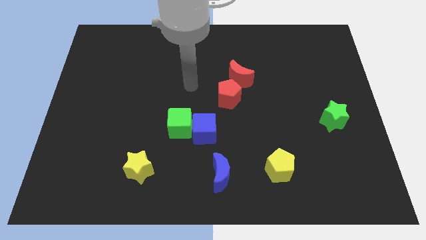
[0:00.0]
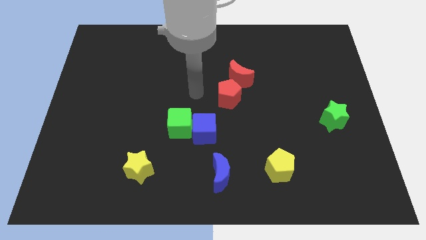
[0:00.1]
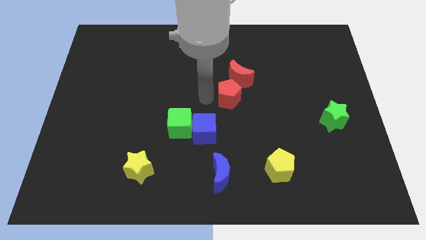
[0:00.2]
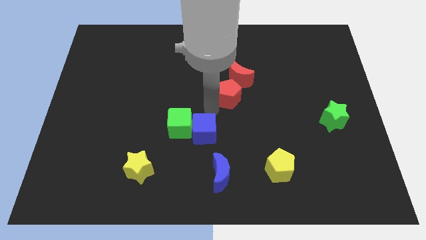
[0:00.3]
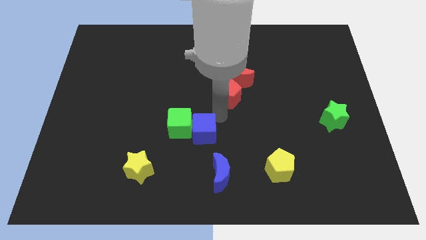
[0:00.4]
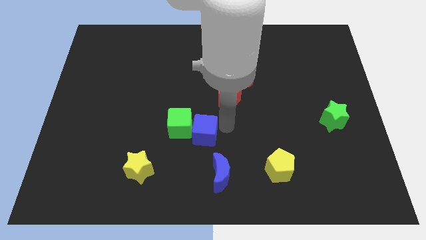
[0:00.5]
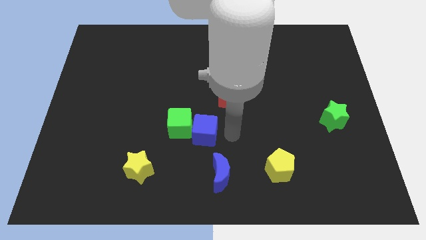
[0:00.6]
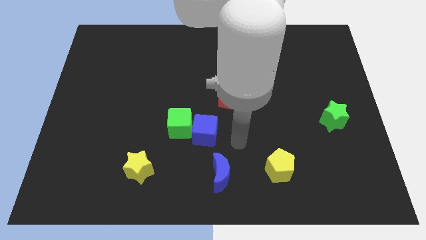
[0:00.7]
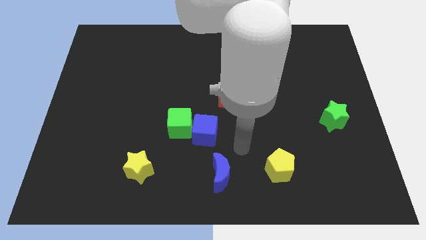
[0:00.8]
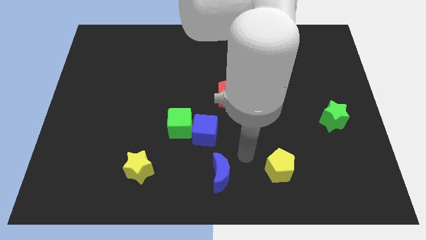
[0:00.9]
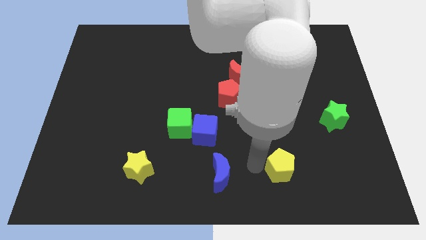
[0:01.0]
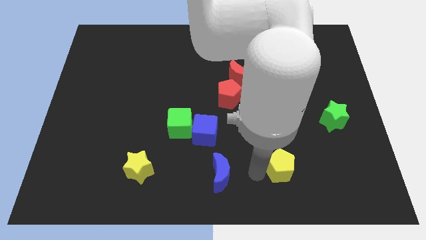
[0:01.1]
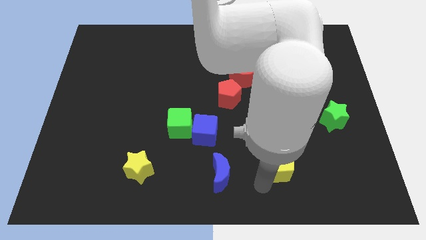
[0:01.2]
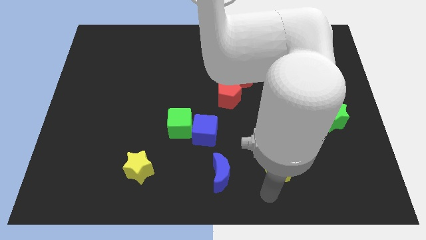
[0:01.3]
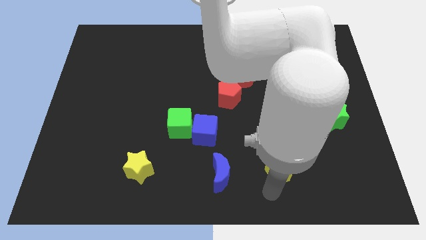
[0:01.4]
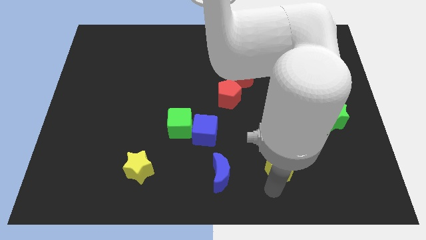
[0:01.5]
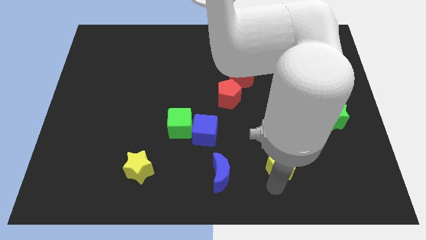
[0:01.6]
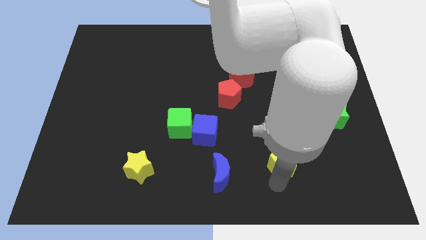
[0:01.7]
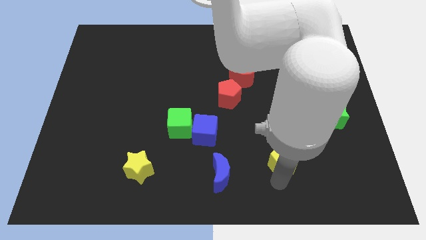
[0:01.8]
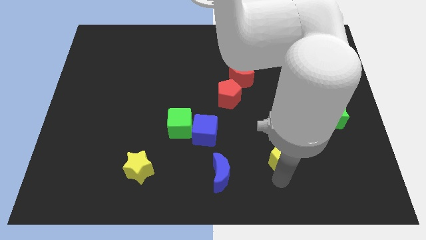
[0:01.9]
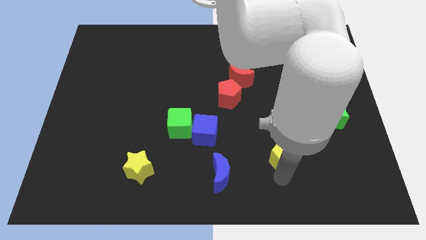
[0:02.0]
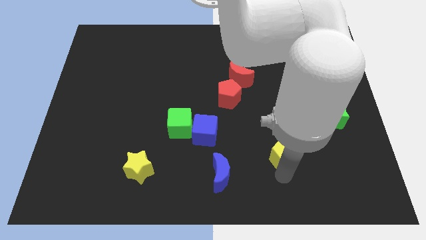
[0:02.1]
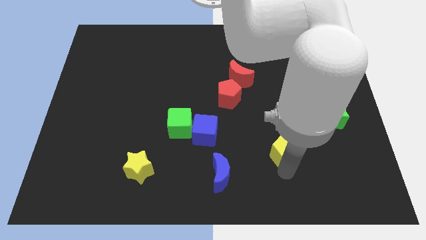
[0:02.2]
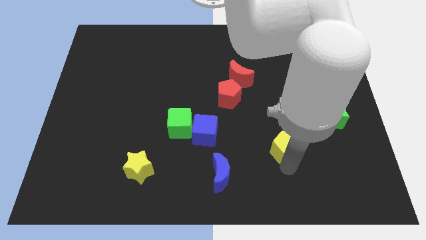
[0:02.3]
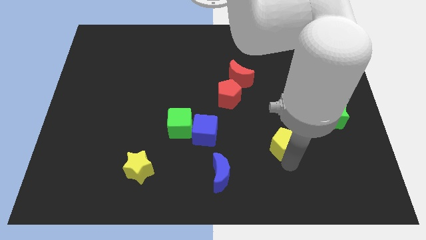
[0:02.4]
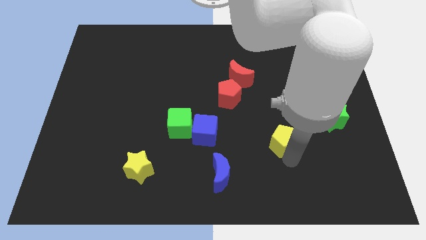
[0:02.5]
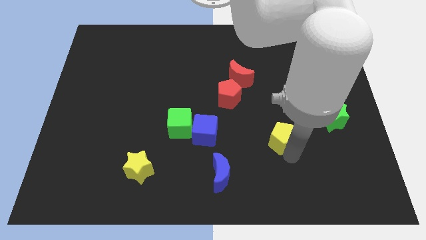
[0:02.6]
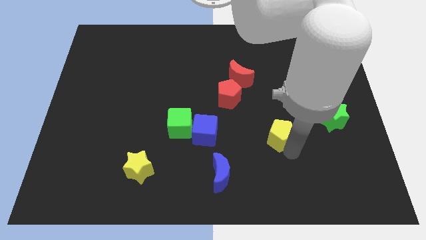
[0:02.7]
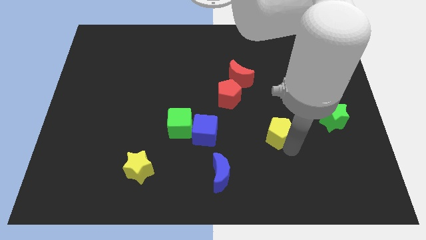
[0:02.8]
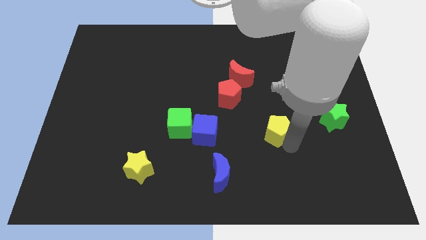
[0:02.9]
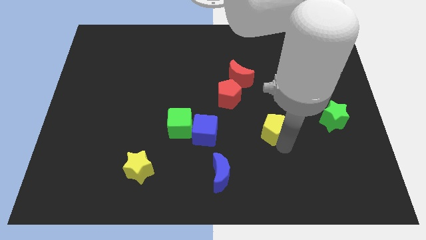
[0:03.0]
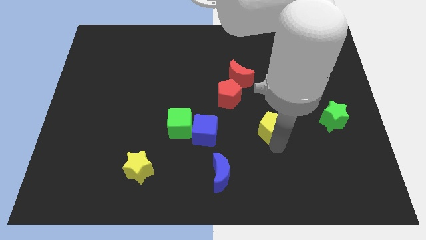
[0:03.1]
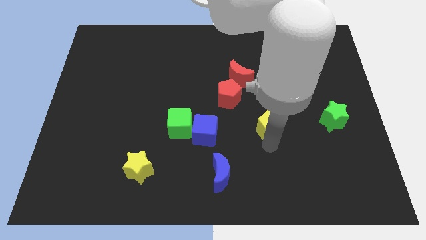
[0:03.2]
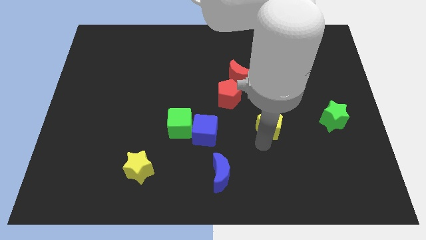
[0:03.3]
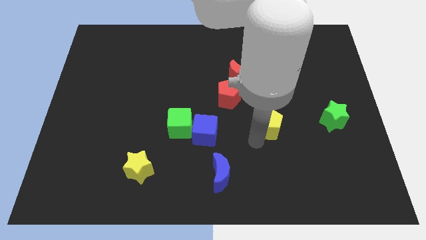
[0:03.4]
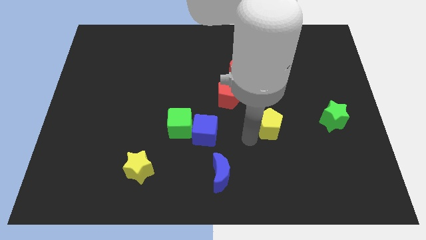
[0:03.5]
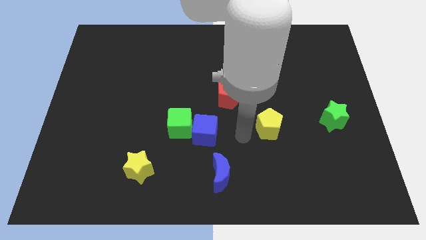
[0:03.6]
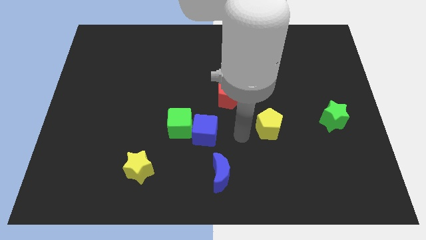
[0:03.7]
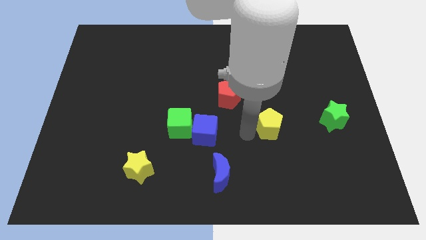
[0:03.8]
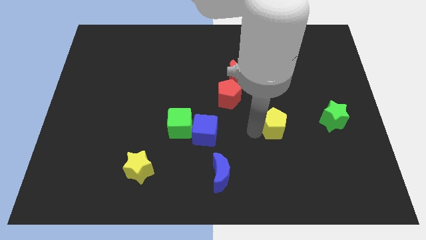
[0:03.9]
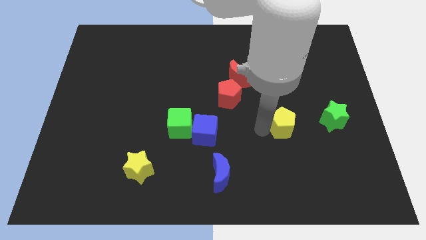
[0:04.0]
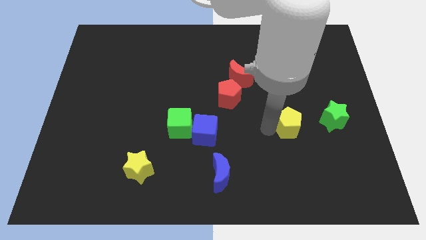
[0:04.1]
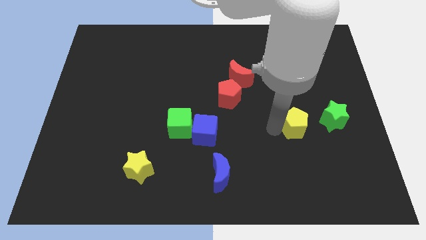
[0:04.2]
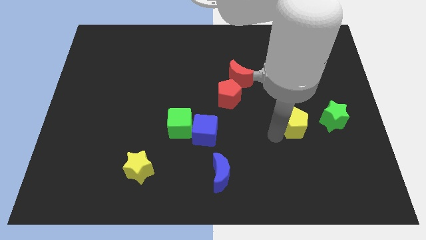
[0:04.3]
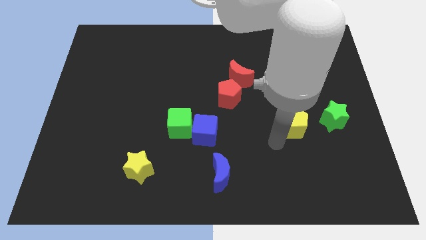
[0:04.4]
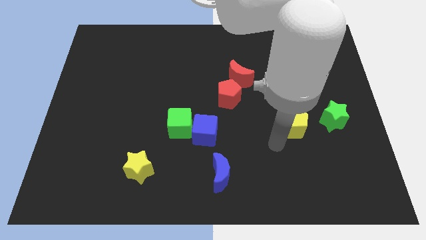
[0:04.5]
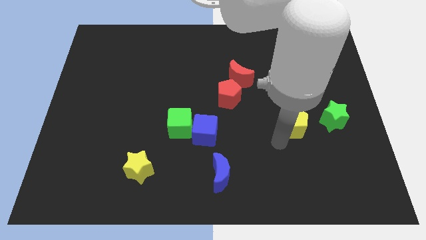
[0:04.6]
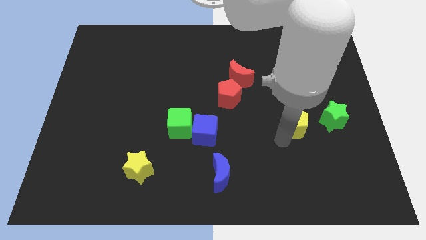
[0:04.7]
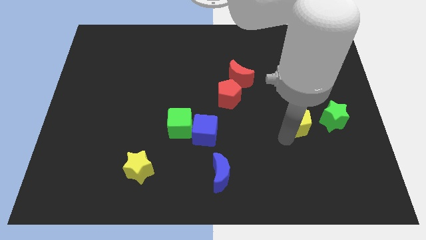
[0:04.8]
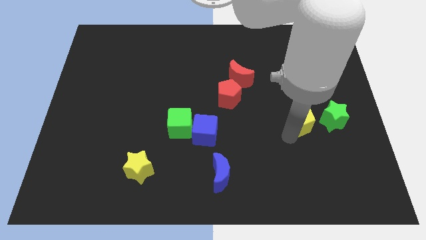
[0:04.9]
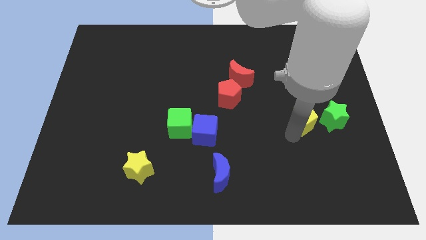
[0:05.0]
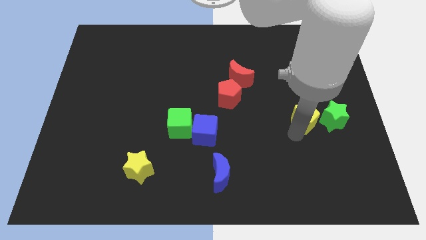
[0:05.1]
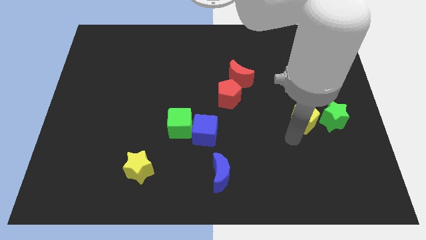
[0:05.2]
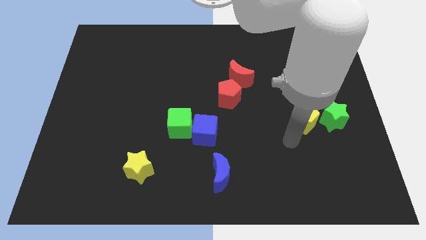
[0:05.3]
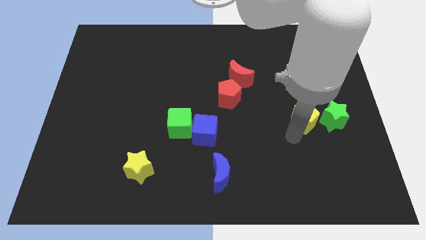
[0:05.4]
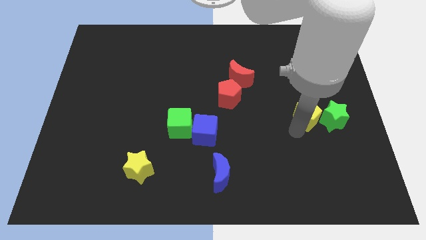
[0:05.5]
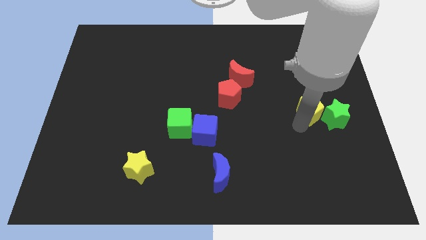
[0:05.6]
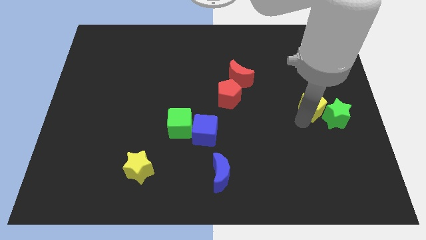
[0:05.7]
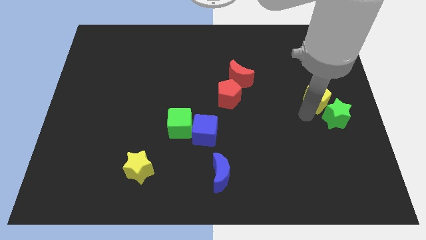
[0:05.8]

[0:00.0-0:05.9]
push the yellow pentagon to the top side of the green star

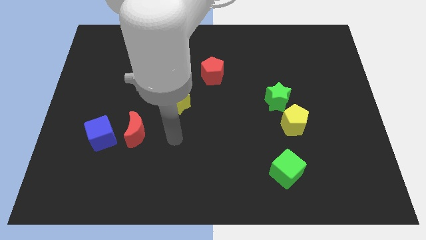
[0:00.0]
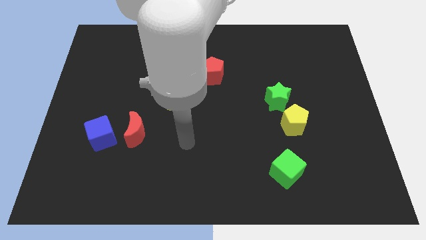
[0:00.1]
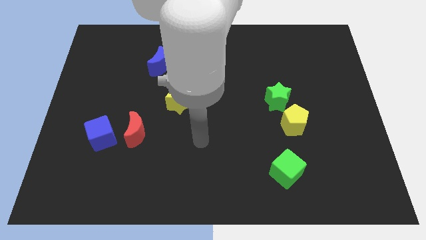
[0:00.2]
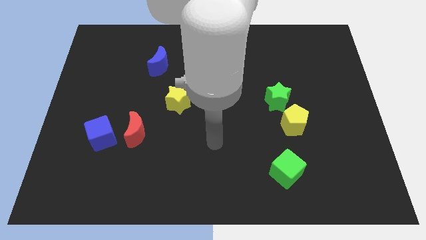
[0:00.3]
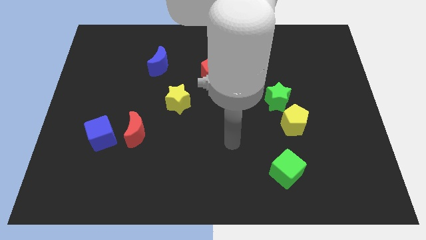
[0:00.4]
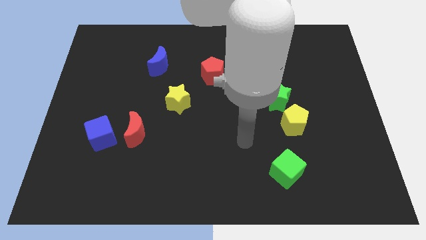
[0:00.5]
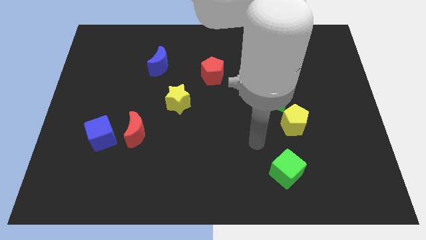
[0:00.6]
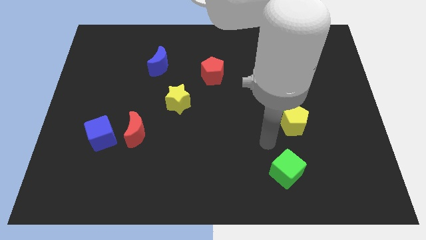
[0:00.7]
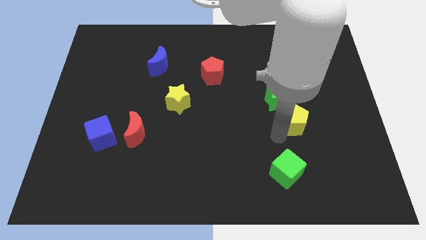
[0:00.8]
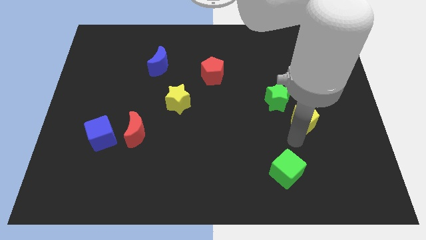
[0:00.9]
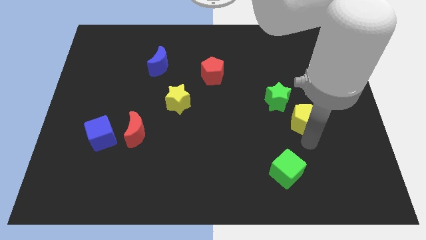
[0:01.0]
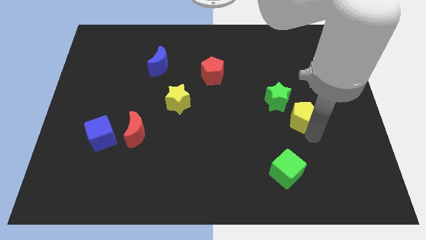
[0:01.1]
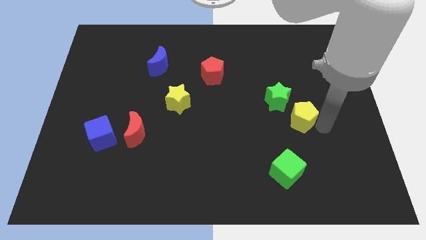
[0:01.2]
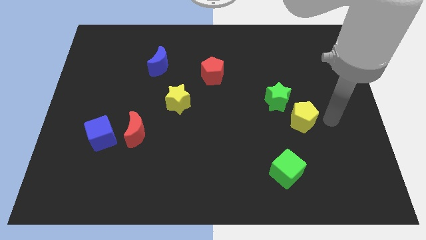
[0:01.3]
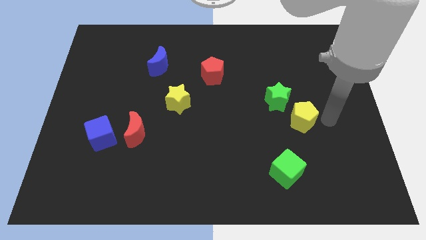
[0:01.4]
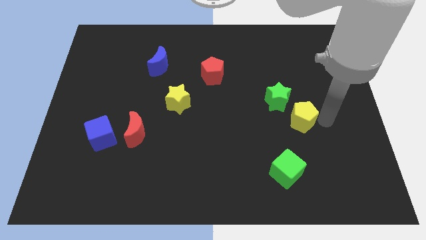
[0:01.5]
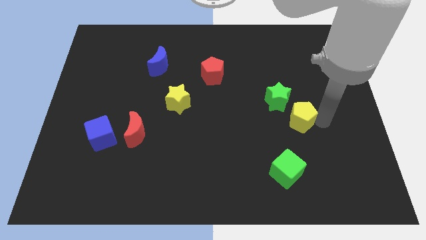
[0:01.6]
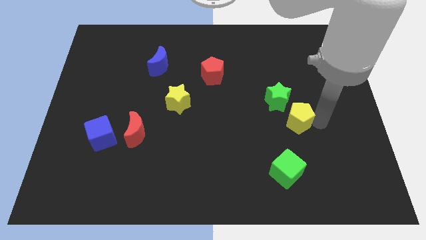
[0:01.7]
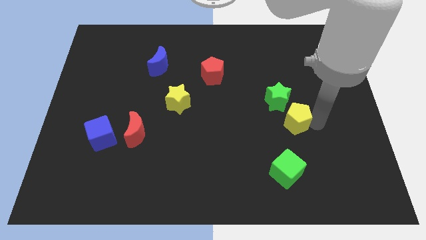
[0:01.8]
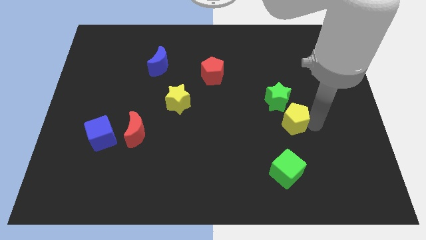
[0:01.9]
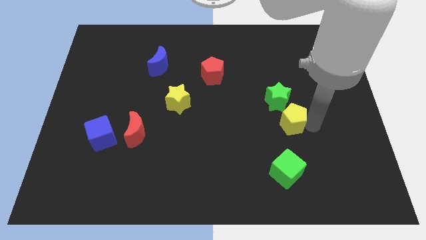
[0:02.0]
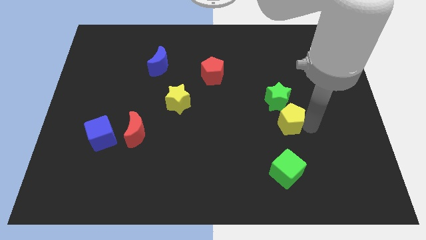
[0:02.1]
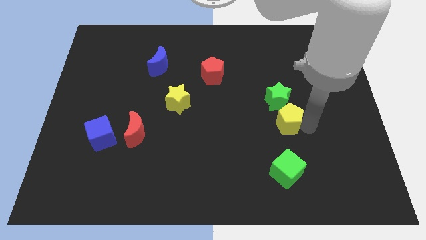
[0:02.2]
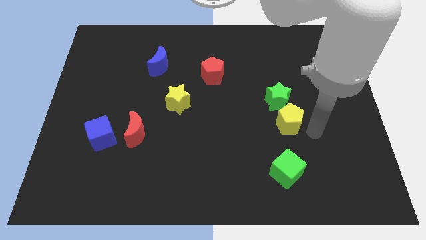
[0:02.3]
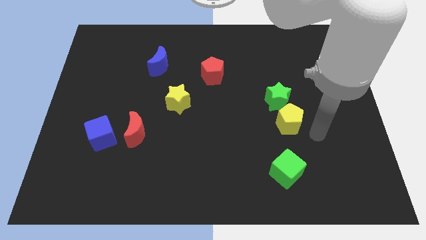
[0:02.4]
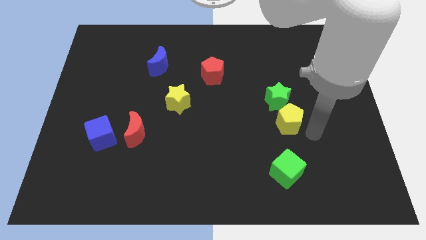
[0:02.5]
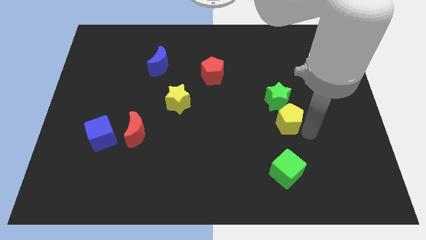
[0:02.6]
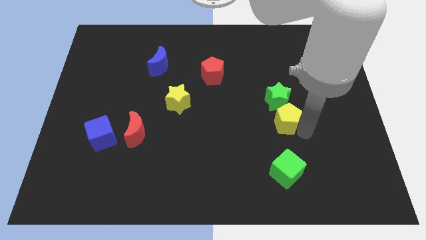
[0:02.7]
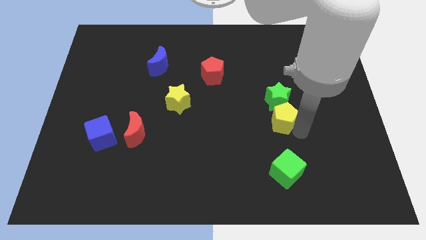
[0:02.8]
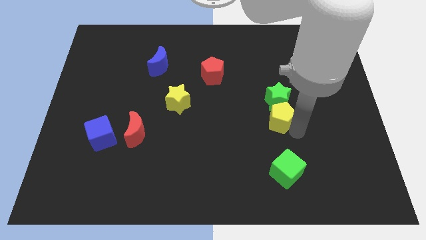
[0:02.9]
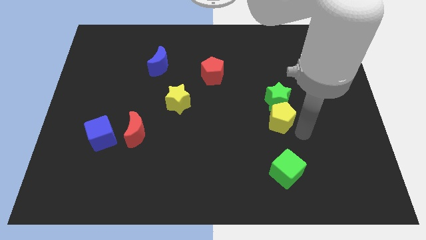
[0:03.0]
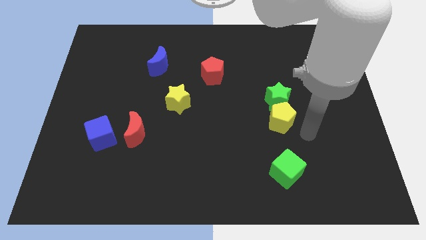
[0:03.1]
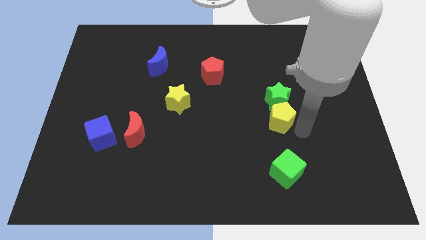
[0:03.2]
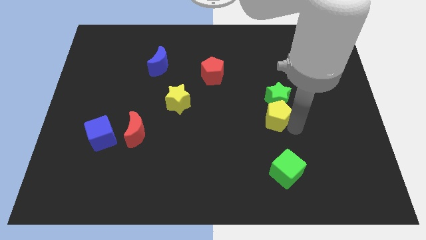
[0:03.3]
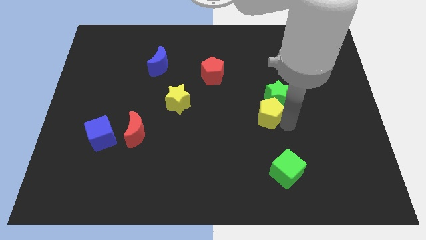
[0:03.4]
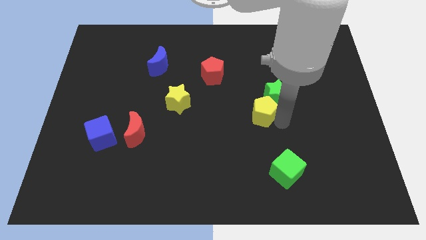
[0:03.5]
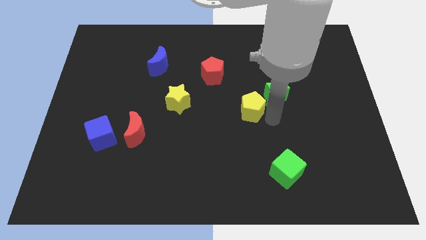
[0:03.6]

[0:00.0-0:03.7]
slide the yellow pentagon left of the green star
